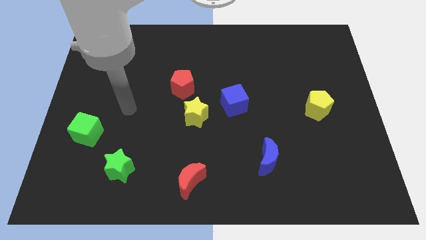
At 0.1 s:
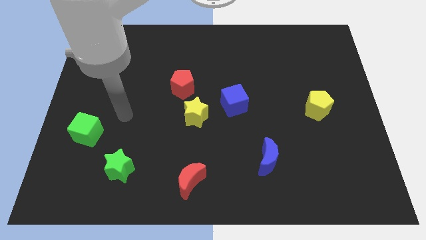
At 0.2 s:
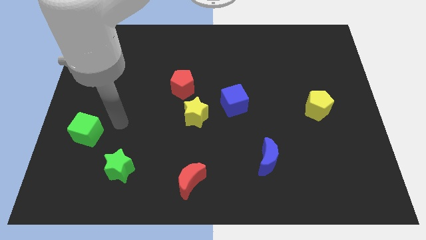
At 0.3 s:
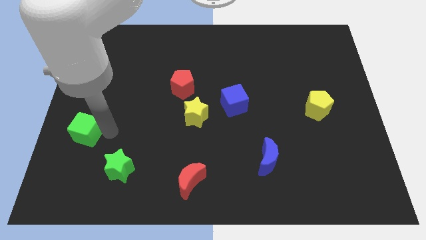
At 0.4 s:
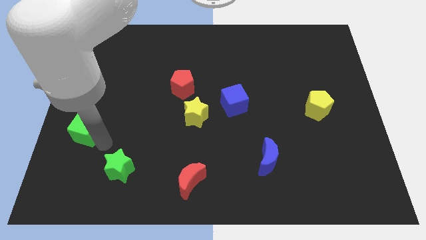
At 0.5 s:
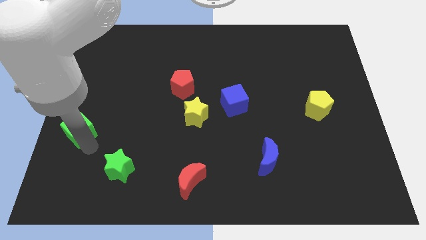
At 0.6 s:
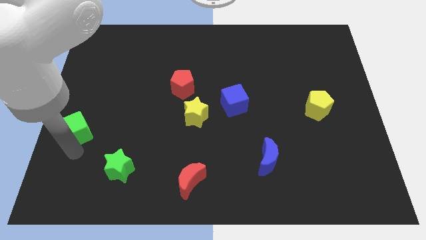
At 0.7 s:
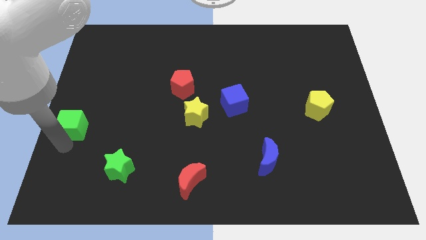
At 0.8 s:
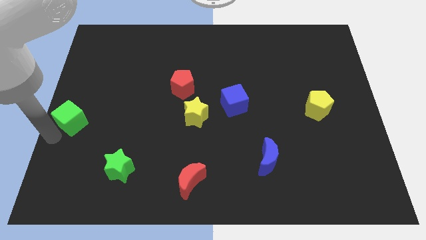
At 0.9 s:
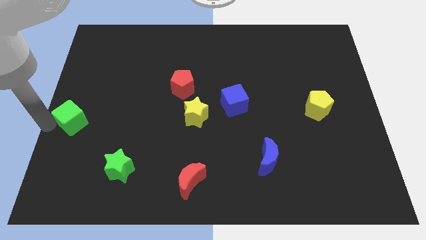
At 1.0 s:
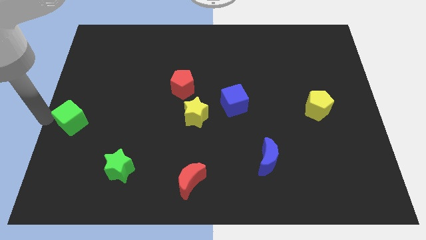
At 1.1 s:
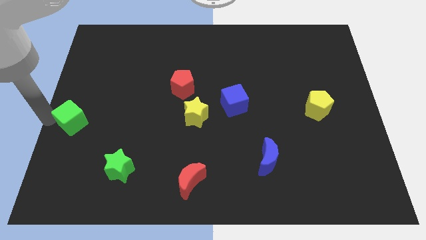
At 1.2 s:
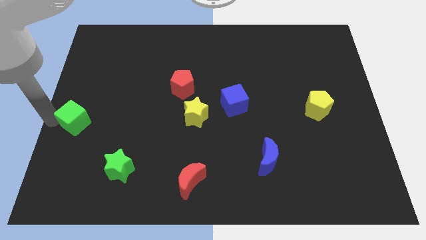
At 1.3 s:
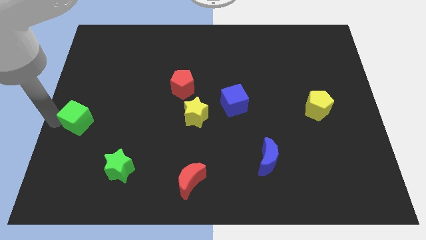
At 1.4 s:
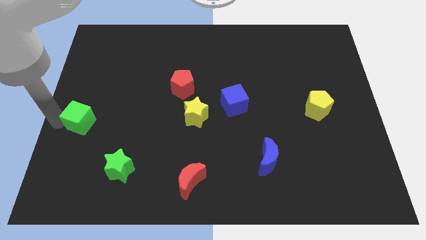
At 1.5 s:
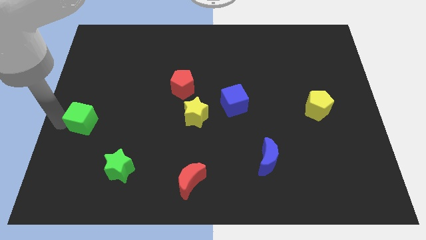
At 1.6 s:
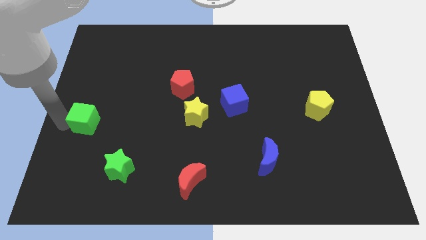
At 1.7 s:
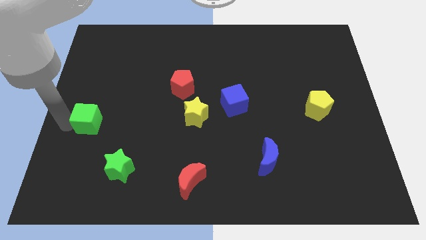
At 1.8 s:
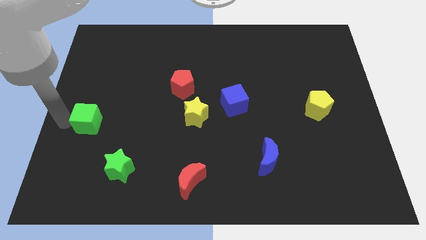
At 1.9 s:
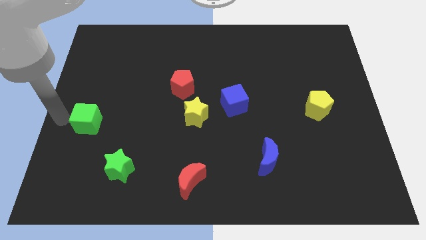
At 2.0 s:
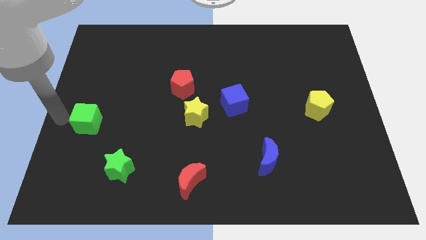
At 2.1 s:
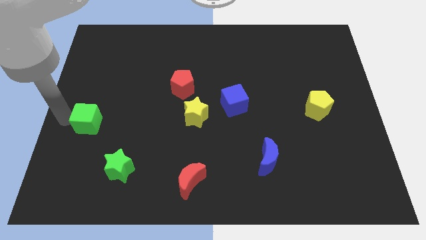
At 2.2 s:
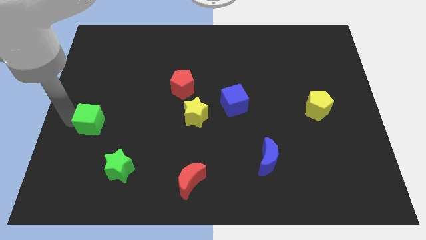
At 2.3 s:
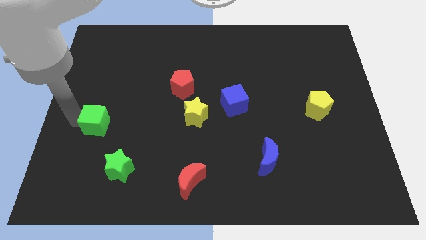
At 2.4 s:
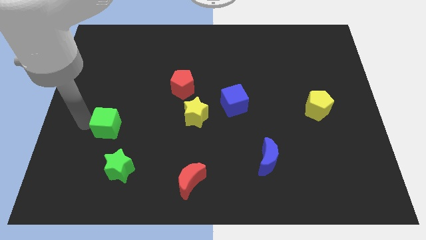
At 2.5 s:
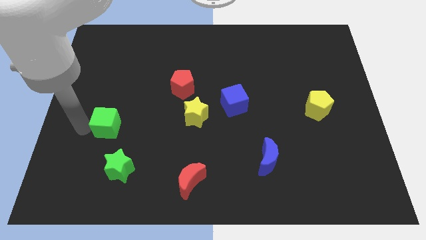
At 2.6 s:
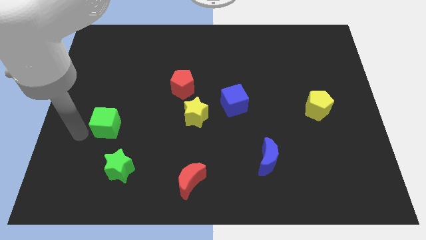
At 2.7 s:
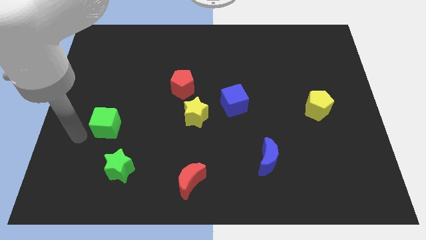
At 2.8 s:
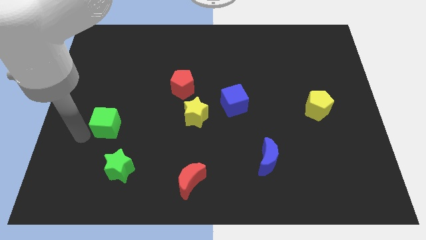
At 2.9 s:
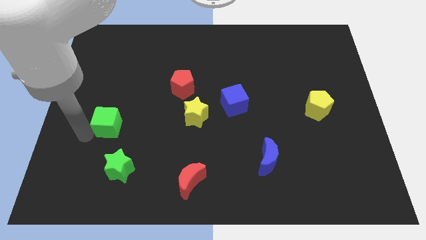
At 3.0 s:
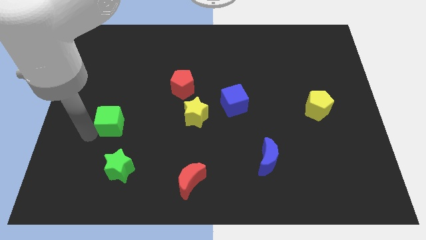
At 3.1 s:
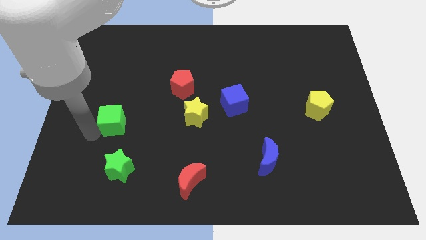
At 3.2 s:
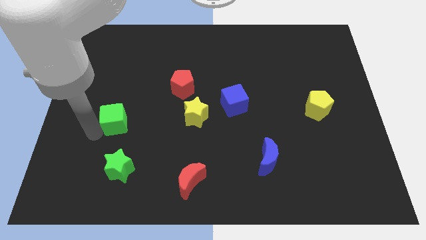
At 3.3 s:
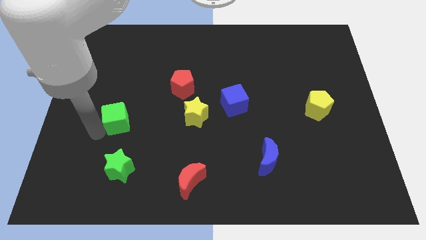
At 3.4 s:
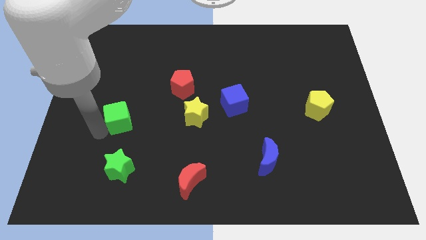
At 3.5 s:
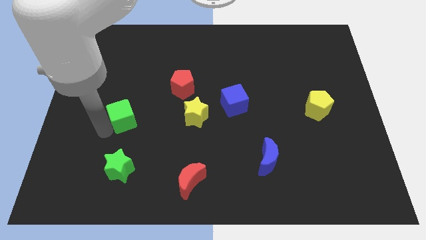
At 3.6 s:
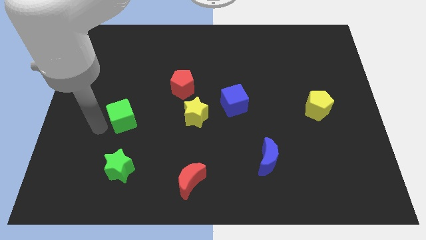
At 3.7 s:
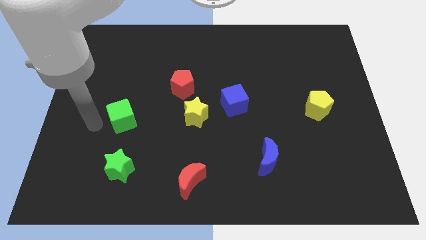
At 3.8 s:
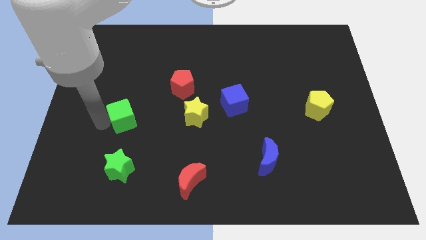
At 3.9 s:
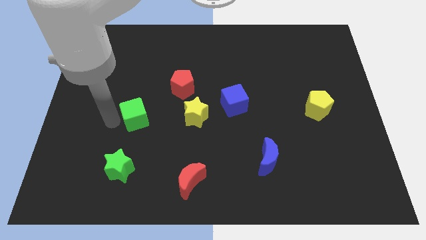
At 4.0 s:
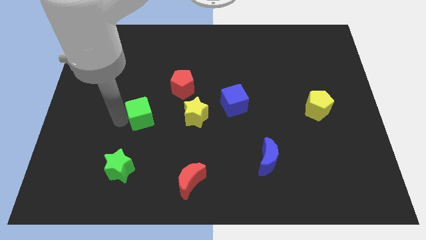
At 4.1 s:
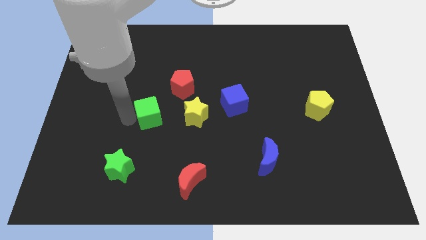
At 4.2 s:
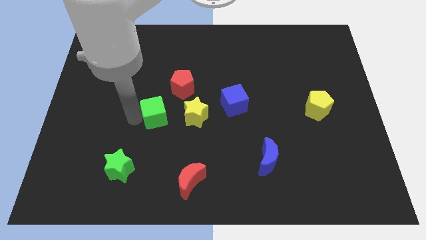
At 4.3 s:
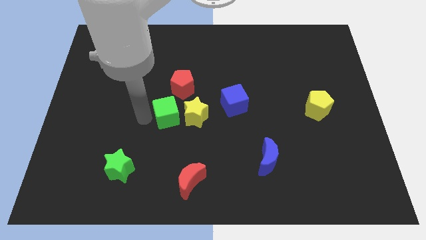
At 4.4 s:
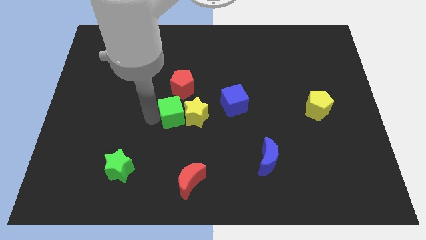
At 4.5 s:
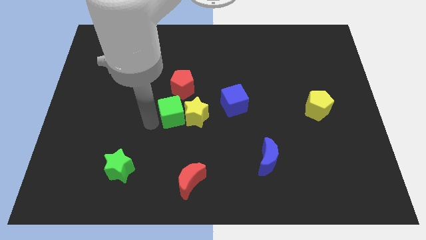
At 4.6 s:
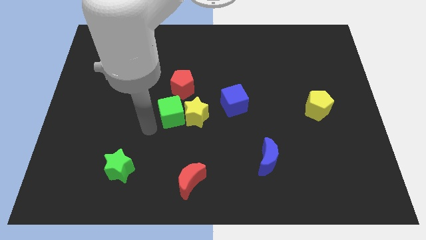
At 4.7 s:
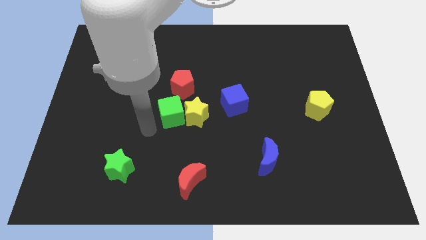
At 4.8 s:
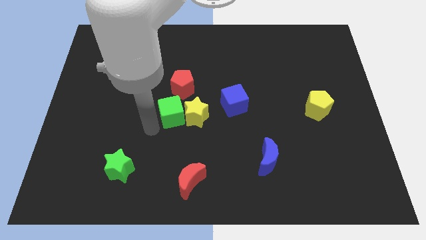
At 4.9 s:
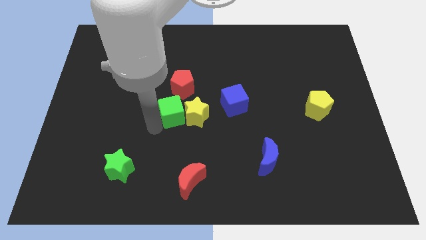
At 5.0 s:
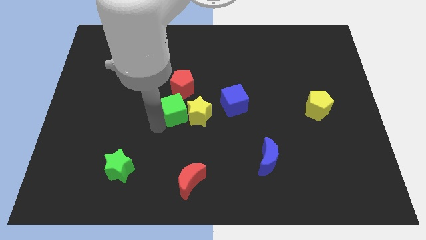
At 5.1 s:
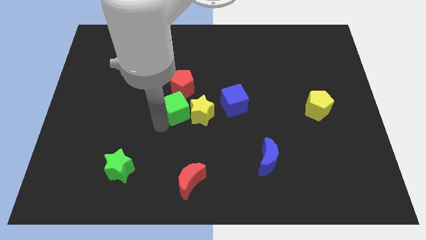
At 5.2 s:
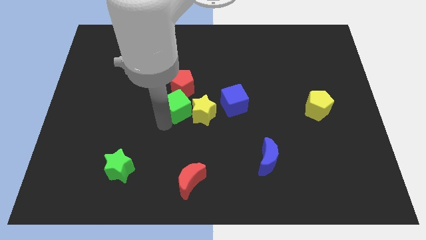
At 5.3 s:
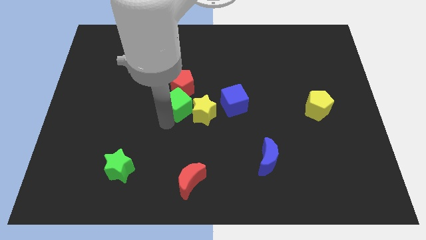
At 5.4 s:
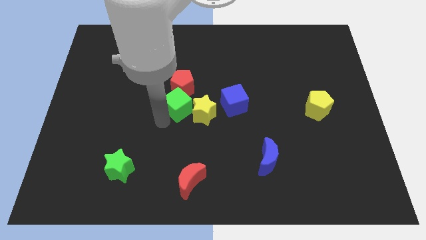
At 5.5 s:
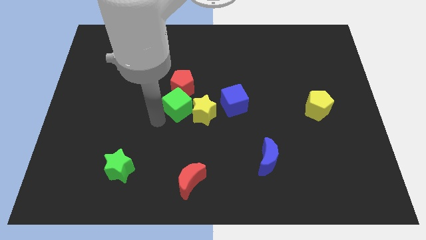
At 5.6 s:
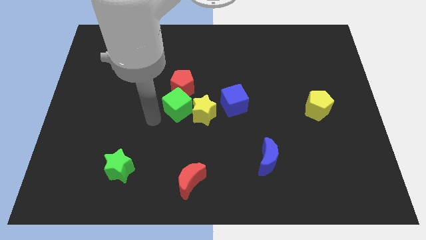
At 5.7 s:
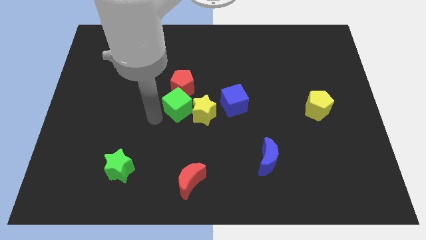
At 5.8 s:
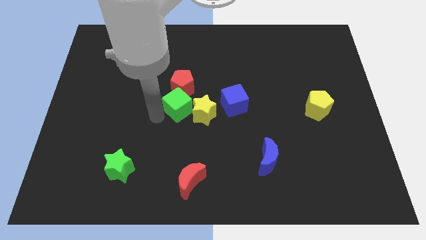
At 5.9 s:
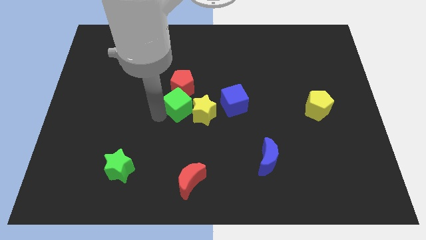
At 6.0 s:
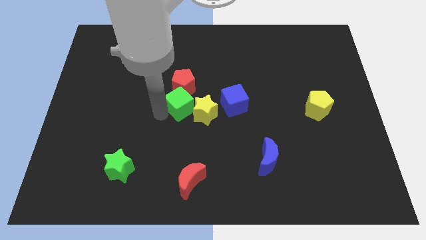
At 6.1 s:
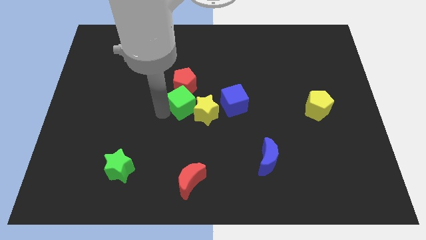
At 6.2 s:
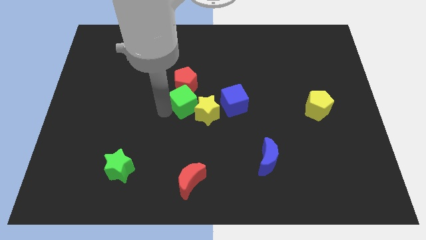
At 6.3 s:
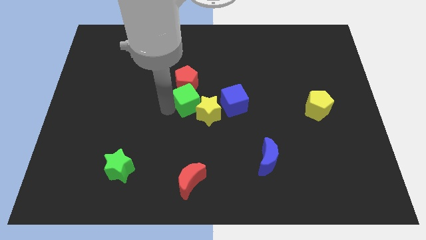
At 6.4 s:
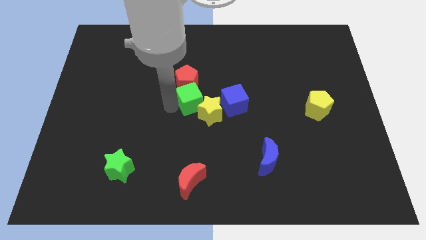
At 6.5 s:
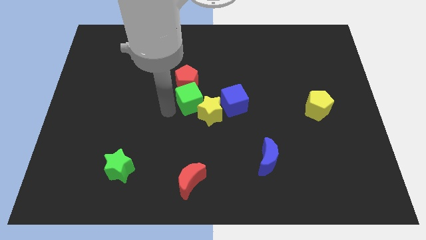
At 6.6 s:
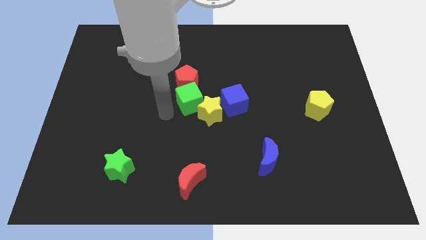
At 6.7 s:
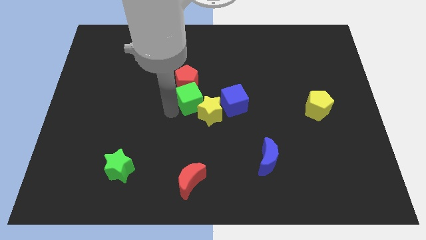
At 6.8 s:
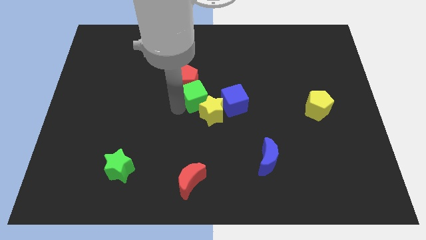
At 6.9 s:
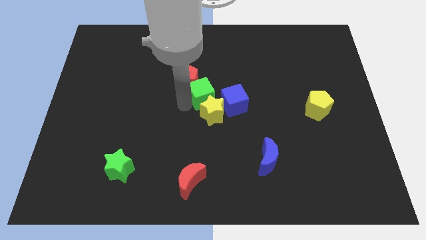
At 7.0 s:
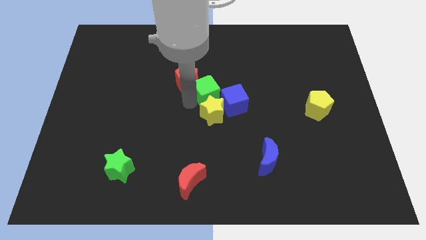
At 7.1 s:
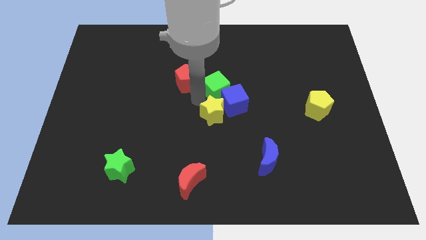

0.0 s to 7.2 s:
slide the green cube to the top side of the blue cube
